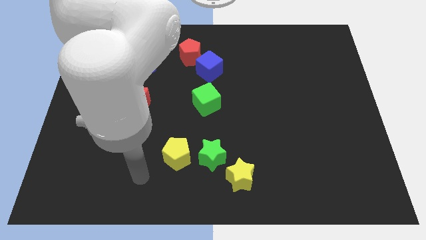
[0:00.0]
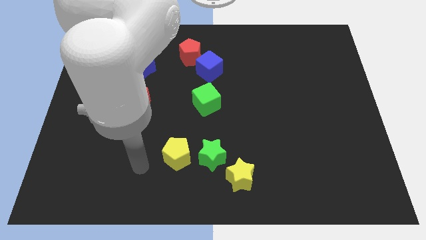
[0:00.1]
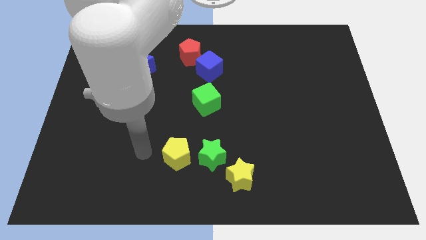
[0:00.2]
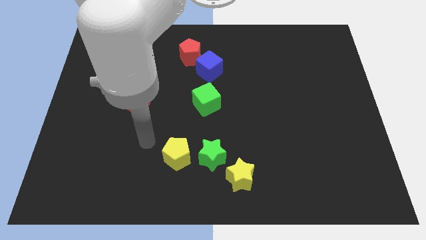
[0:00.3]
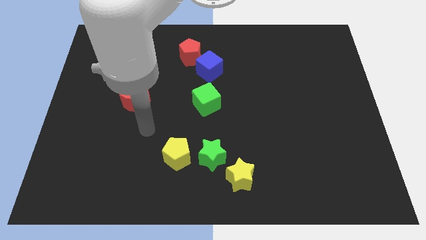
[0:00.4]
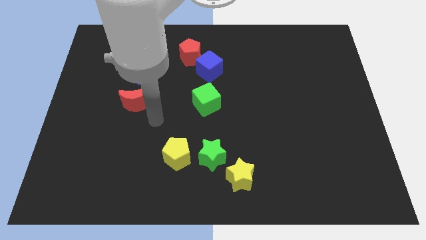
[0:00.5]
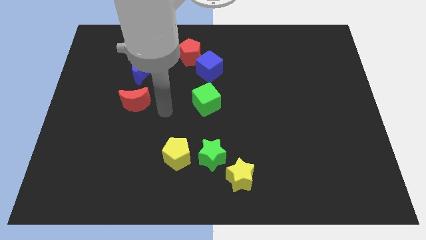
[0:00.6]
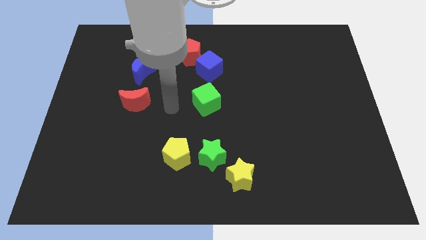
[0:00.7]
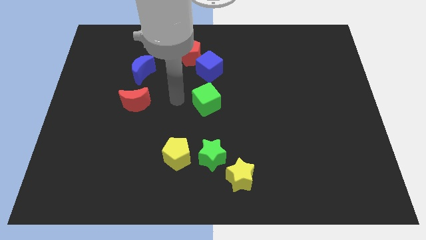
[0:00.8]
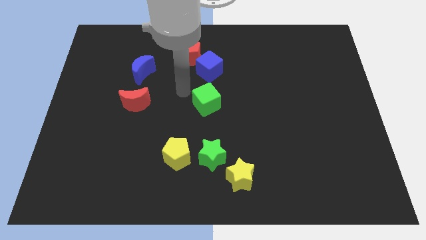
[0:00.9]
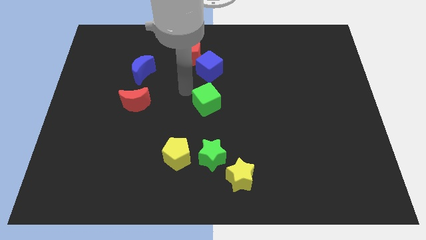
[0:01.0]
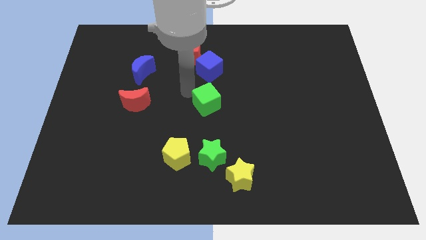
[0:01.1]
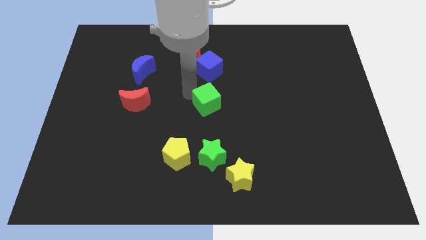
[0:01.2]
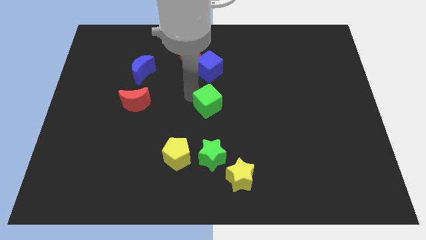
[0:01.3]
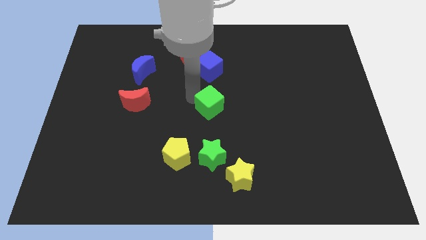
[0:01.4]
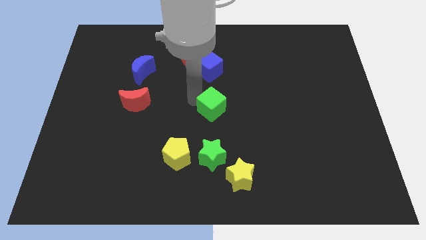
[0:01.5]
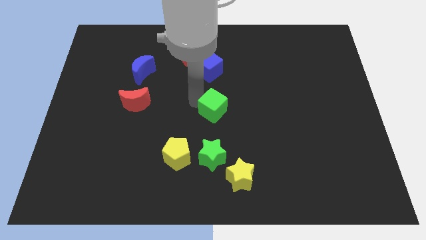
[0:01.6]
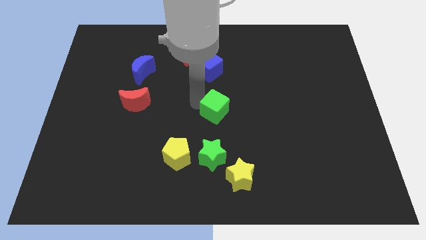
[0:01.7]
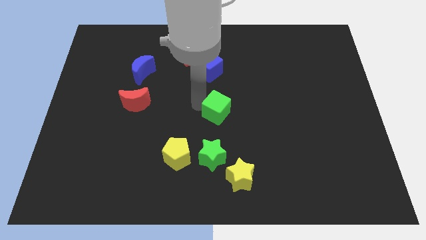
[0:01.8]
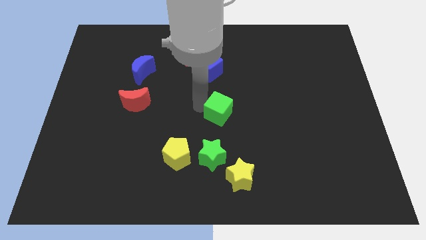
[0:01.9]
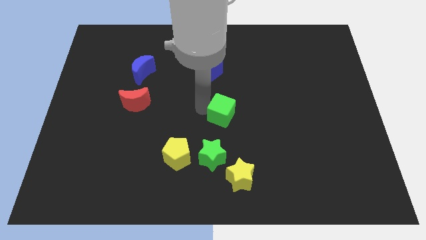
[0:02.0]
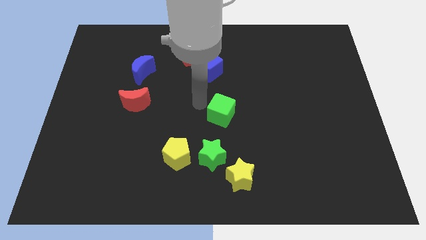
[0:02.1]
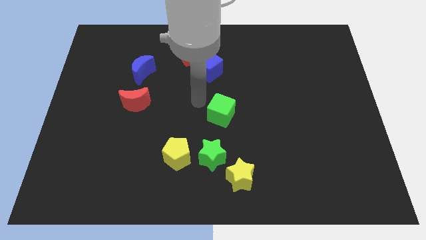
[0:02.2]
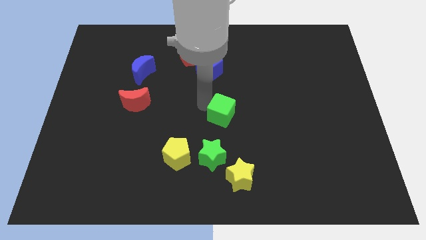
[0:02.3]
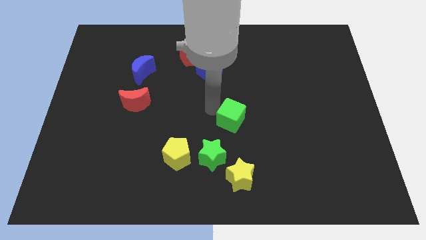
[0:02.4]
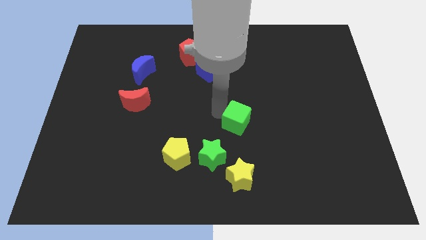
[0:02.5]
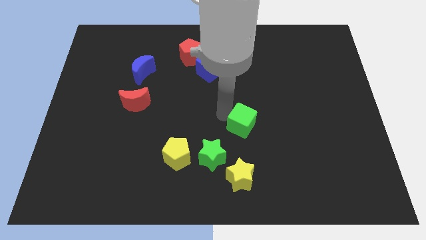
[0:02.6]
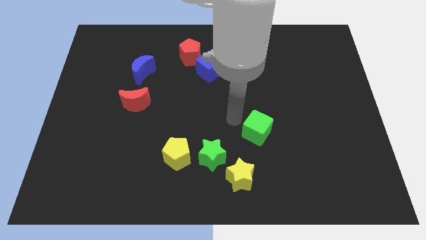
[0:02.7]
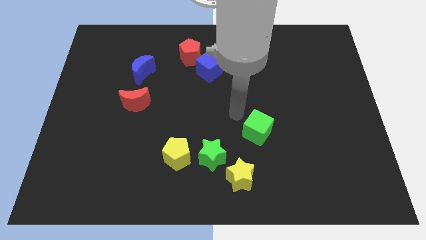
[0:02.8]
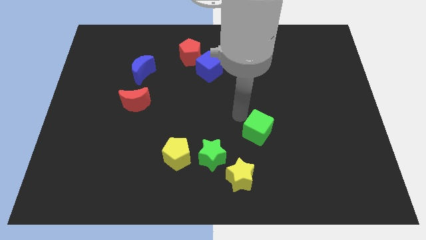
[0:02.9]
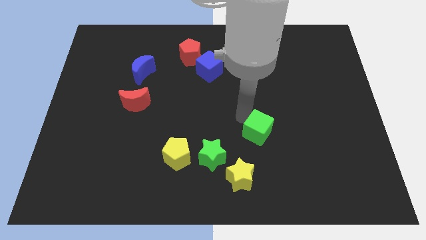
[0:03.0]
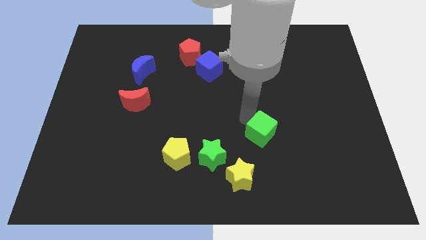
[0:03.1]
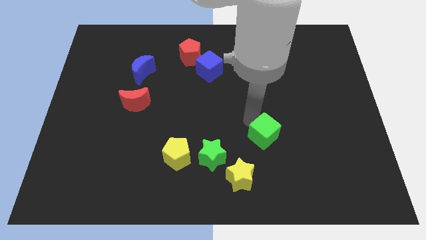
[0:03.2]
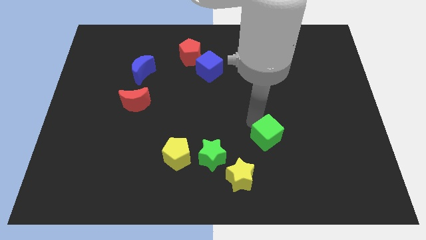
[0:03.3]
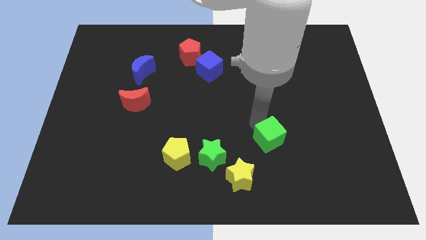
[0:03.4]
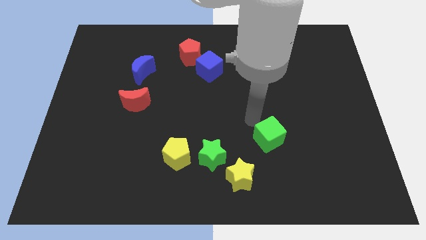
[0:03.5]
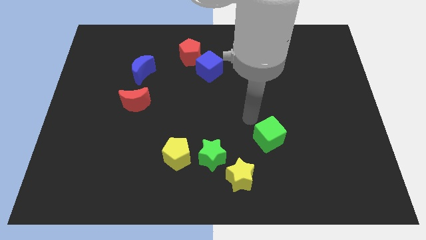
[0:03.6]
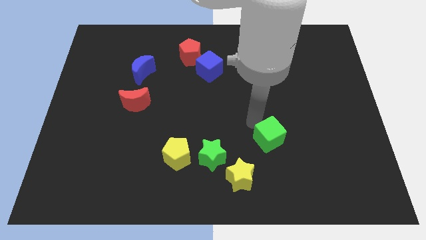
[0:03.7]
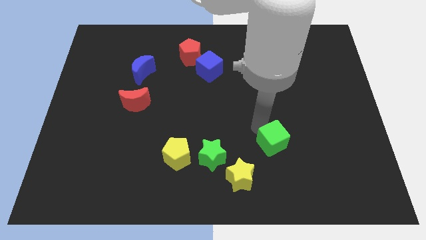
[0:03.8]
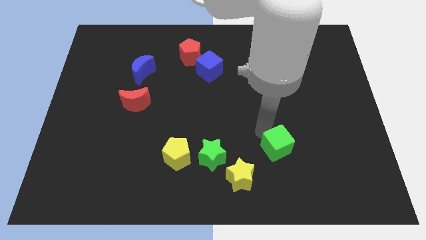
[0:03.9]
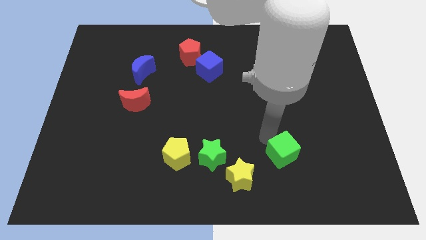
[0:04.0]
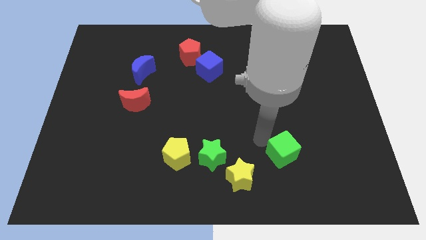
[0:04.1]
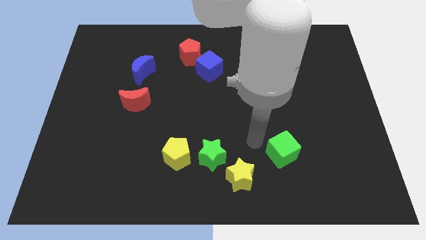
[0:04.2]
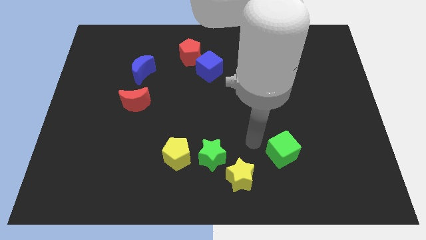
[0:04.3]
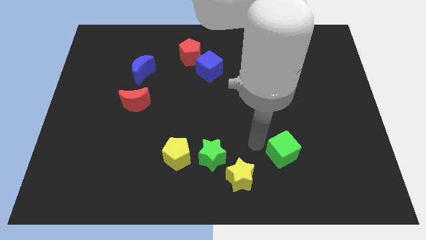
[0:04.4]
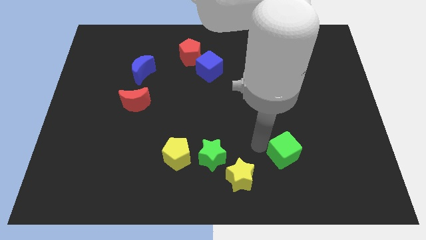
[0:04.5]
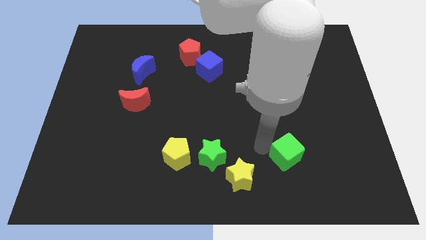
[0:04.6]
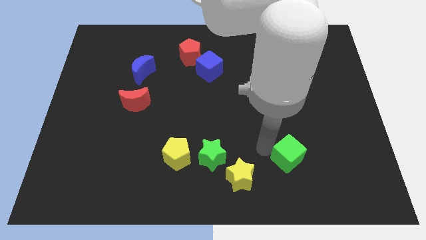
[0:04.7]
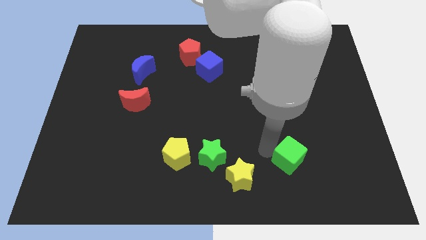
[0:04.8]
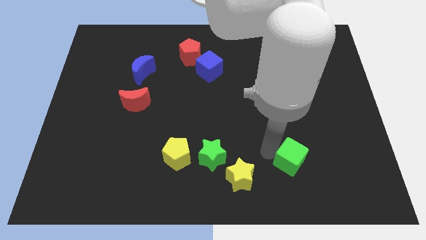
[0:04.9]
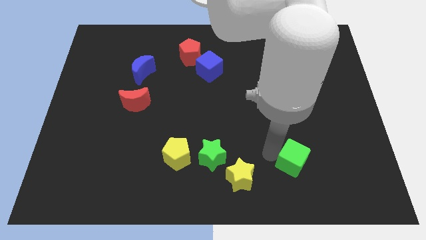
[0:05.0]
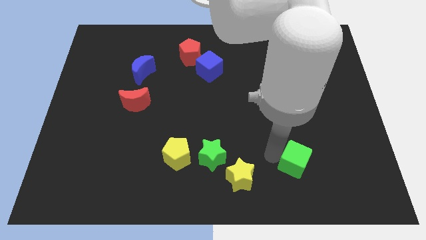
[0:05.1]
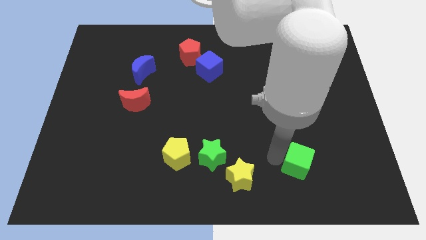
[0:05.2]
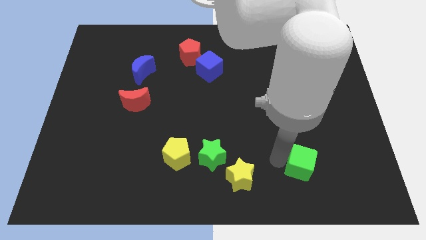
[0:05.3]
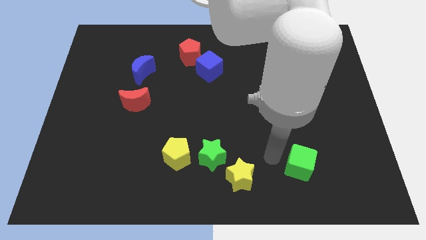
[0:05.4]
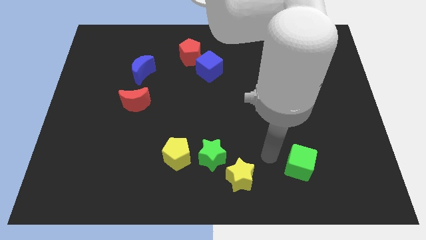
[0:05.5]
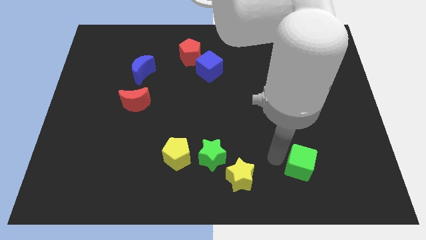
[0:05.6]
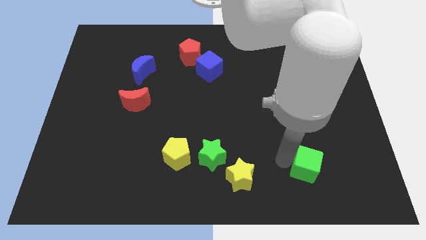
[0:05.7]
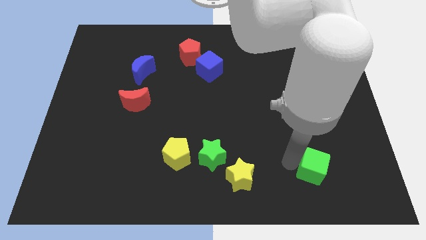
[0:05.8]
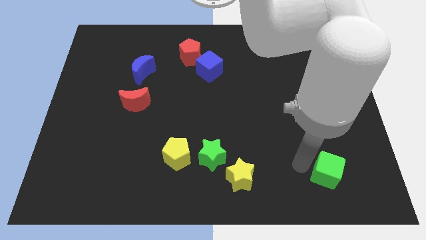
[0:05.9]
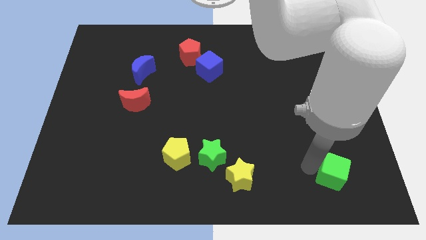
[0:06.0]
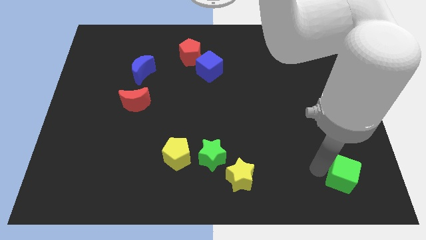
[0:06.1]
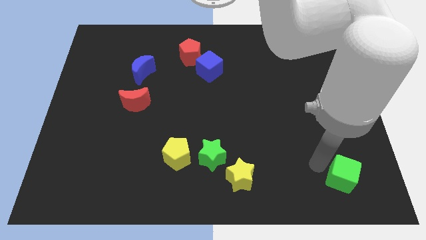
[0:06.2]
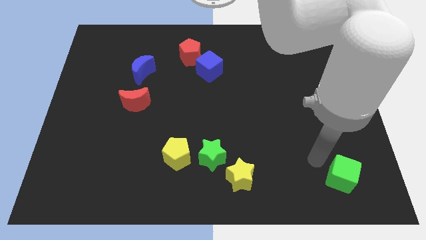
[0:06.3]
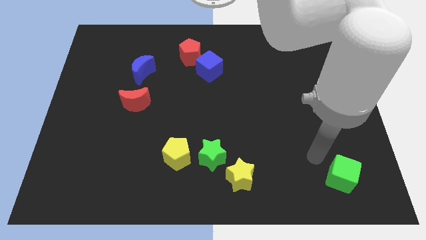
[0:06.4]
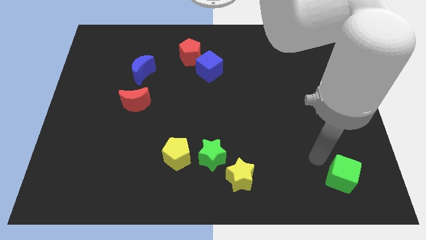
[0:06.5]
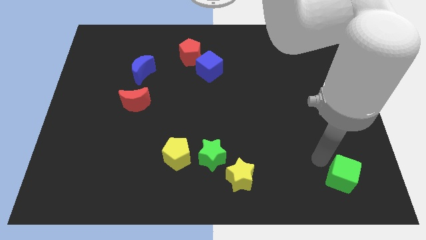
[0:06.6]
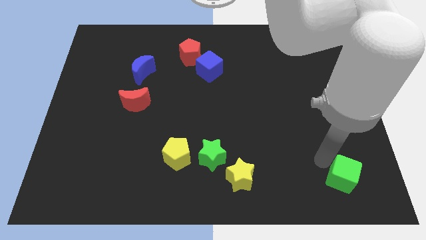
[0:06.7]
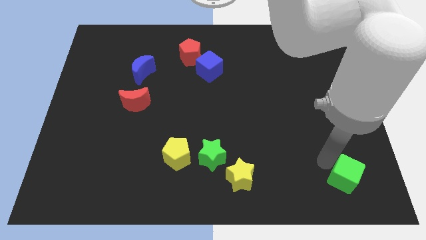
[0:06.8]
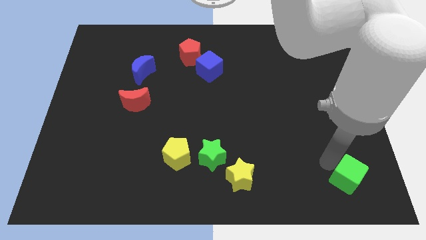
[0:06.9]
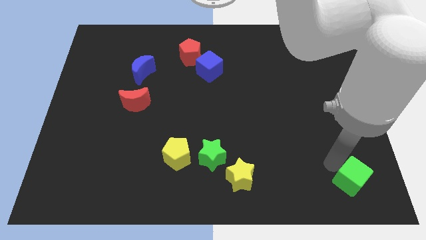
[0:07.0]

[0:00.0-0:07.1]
put the green cube to the lower right corner
